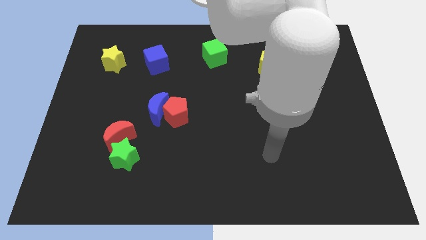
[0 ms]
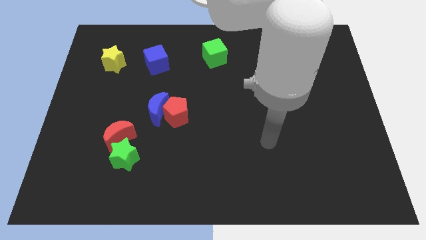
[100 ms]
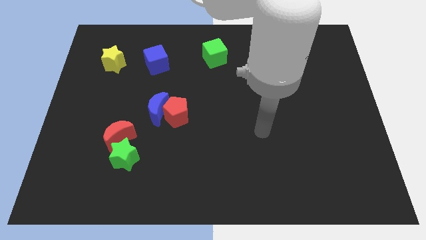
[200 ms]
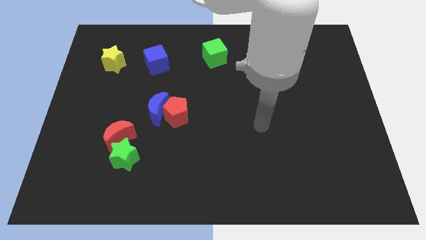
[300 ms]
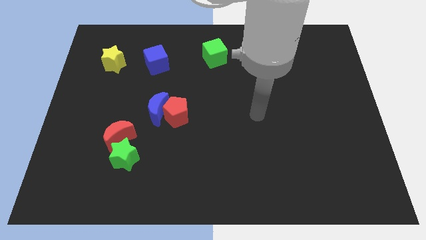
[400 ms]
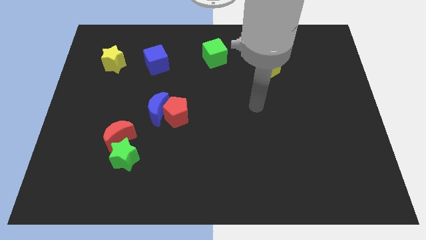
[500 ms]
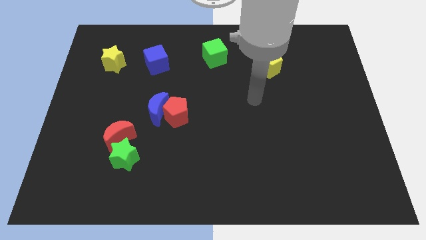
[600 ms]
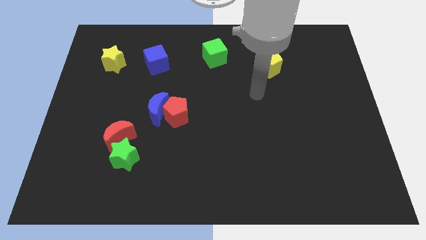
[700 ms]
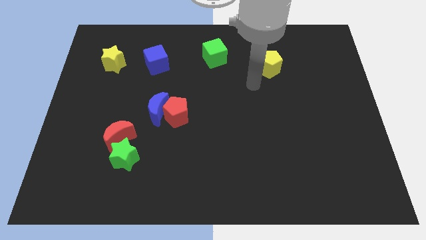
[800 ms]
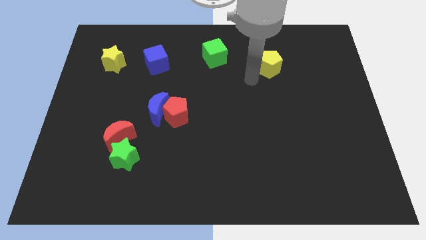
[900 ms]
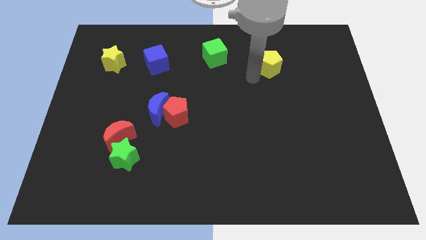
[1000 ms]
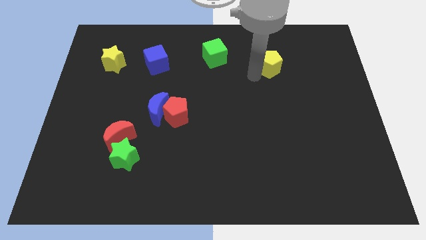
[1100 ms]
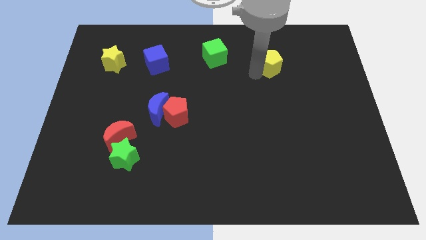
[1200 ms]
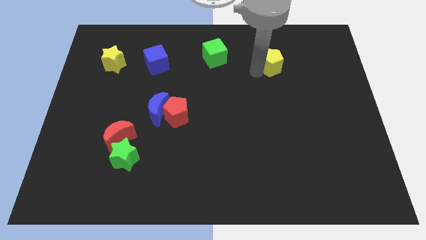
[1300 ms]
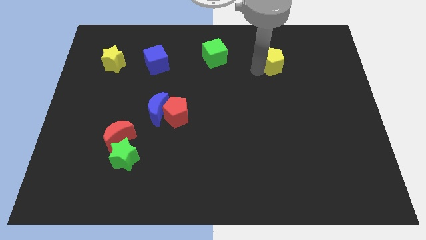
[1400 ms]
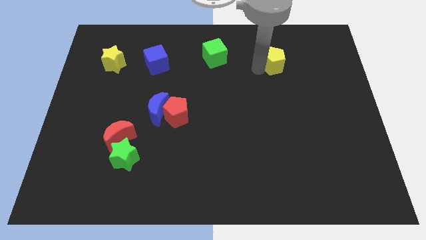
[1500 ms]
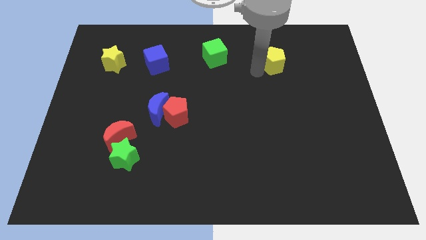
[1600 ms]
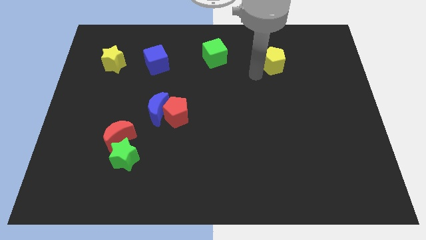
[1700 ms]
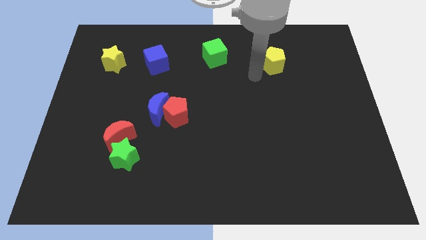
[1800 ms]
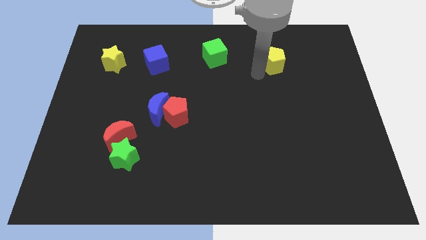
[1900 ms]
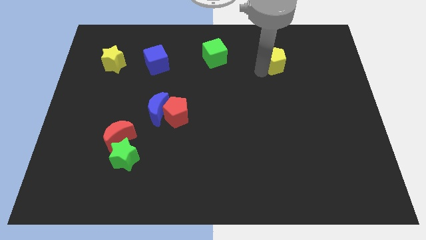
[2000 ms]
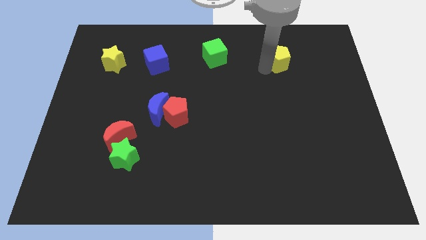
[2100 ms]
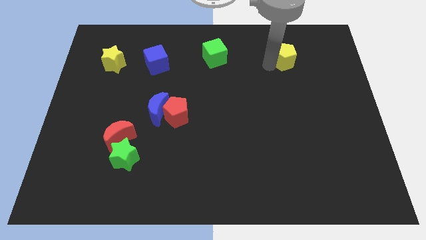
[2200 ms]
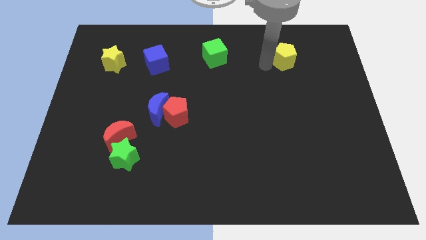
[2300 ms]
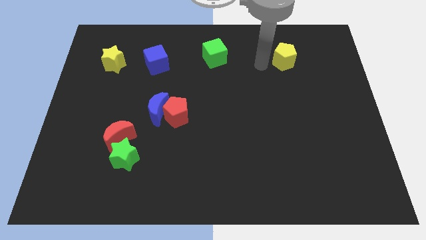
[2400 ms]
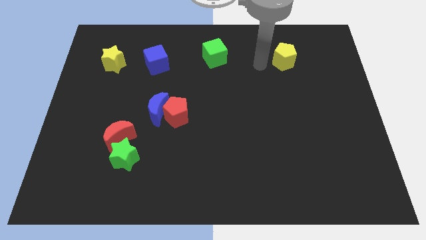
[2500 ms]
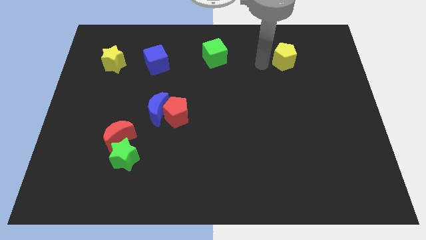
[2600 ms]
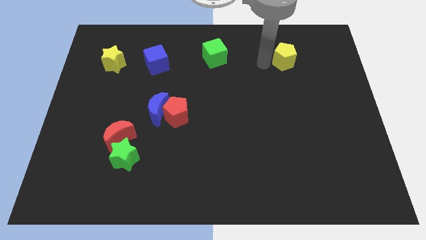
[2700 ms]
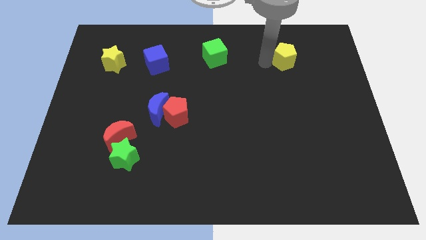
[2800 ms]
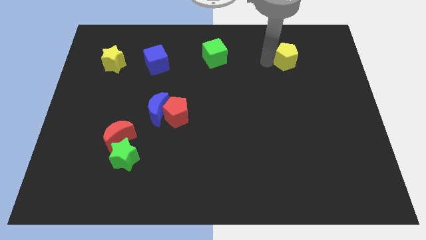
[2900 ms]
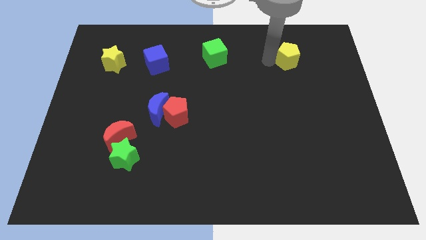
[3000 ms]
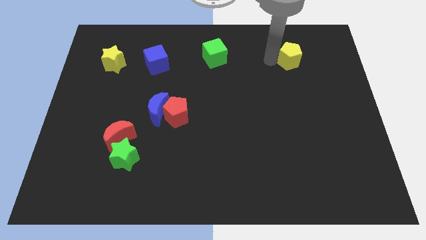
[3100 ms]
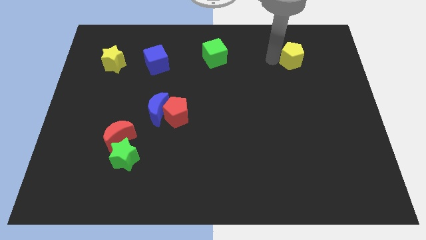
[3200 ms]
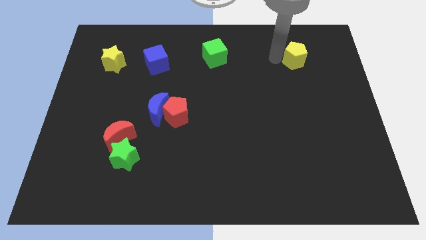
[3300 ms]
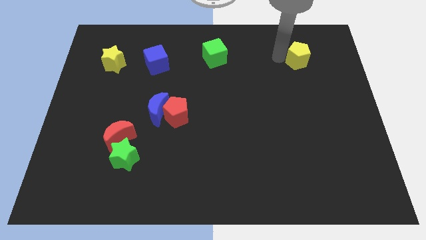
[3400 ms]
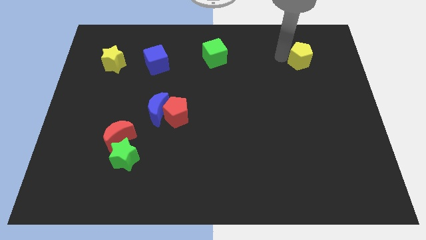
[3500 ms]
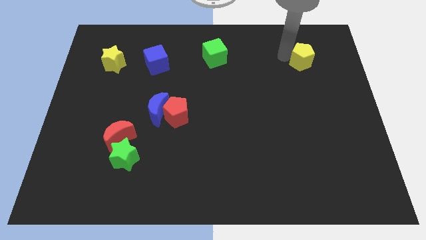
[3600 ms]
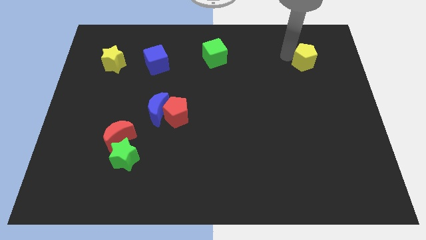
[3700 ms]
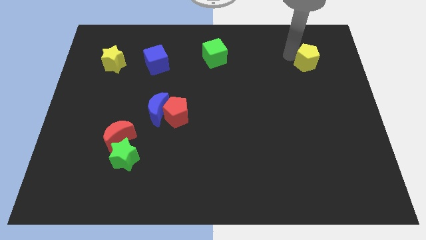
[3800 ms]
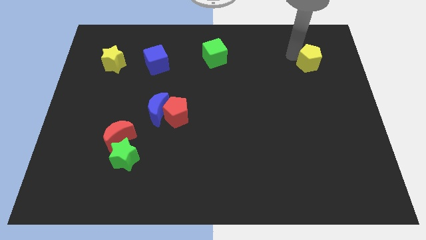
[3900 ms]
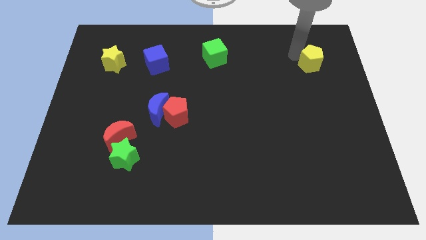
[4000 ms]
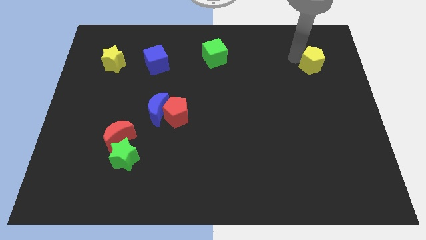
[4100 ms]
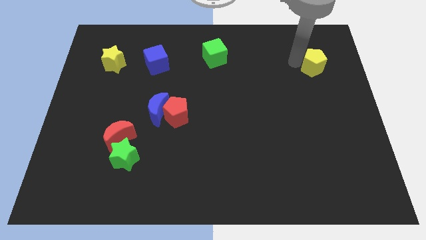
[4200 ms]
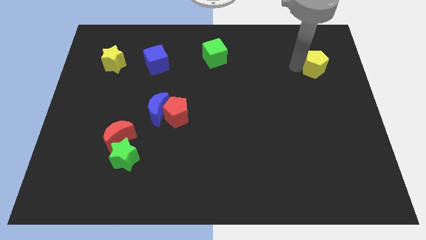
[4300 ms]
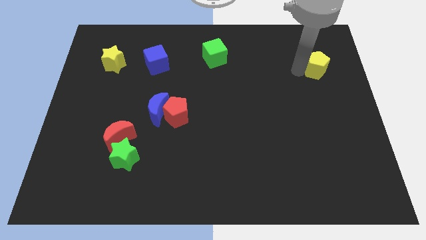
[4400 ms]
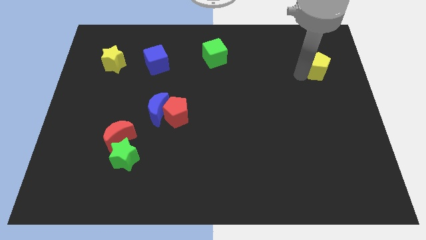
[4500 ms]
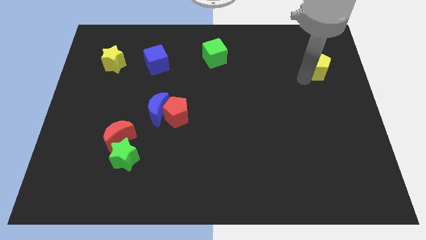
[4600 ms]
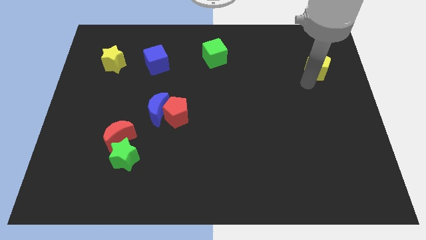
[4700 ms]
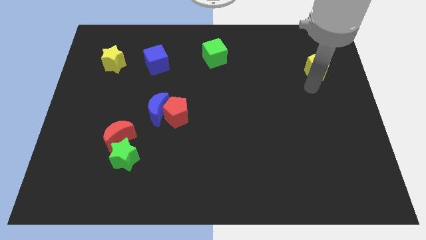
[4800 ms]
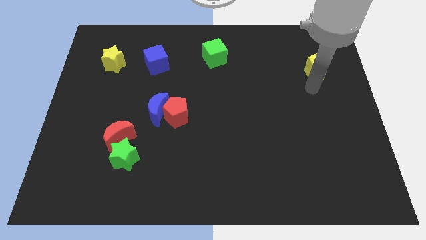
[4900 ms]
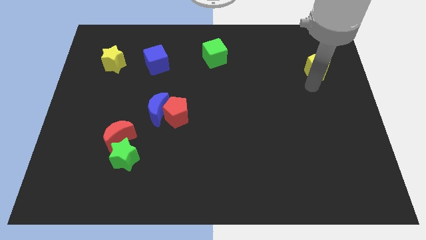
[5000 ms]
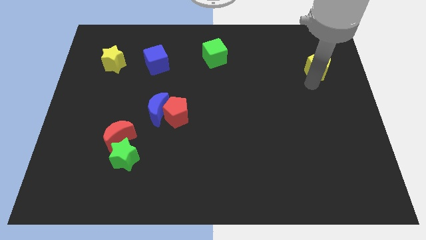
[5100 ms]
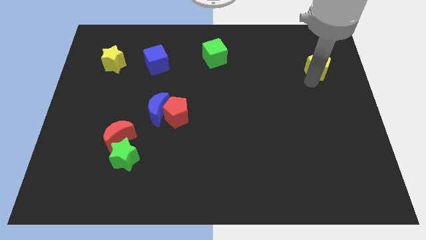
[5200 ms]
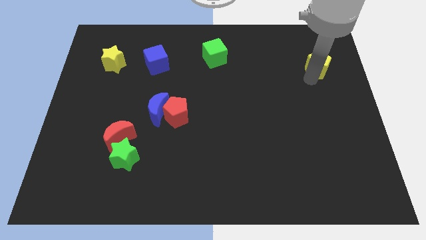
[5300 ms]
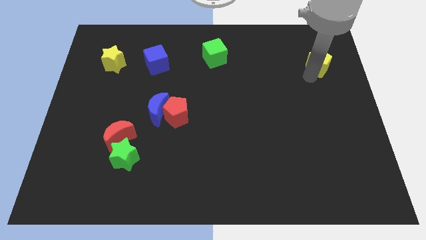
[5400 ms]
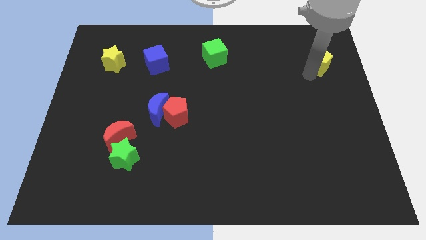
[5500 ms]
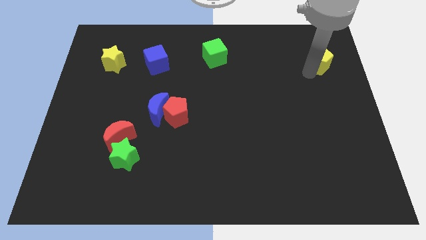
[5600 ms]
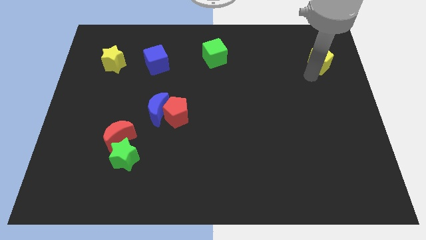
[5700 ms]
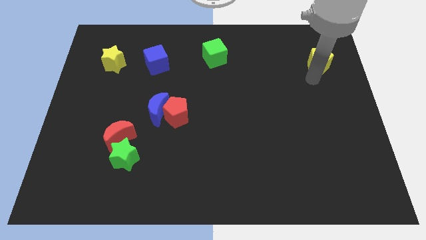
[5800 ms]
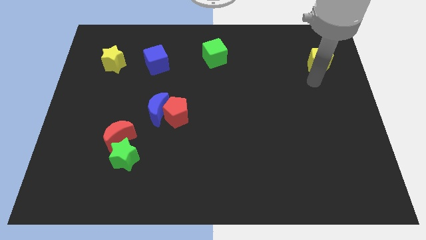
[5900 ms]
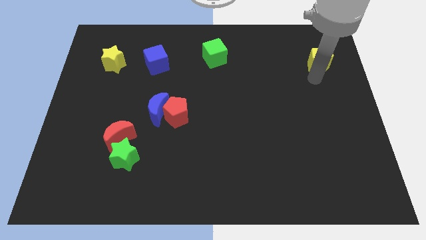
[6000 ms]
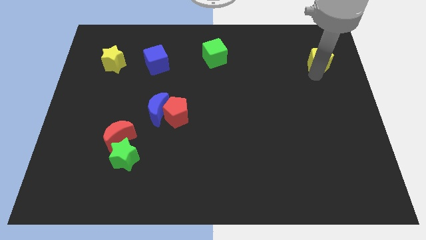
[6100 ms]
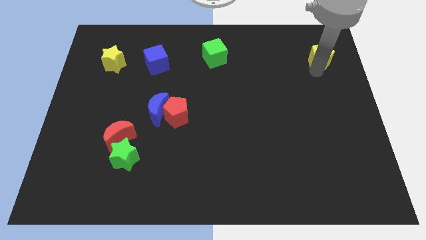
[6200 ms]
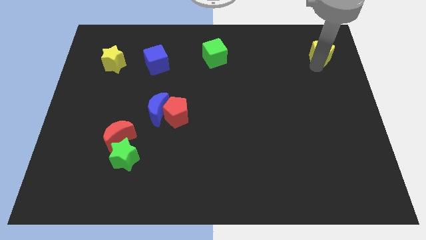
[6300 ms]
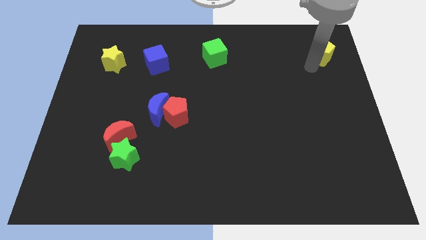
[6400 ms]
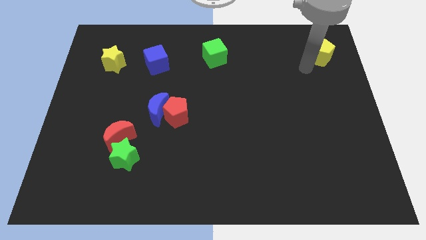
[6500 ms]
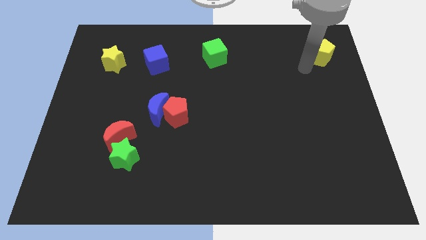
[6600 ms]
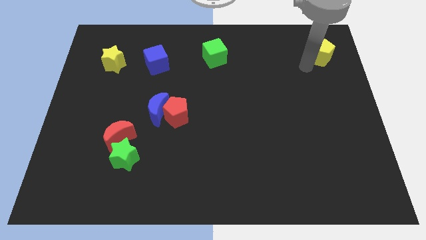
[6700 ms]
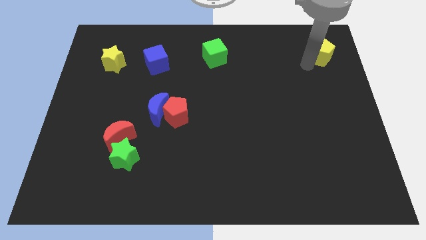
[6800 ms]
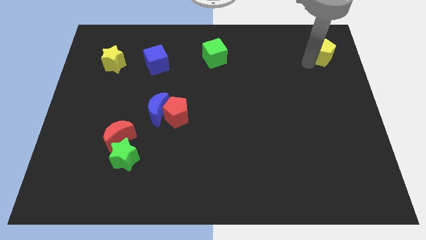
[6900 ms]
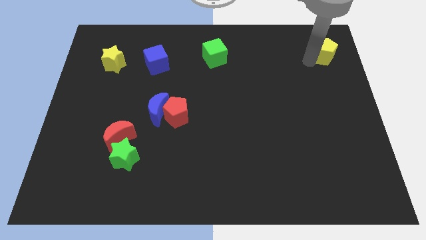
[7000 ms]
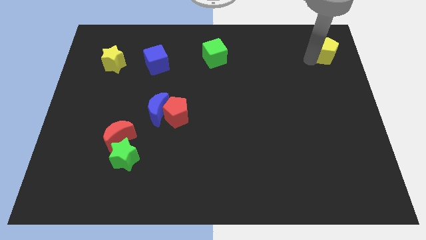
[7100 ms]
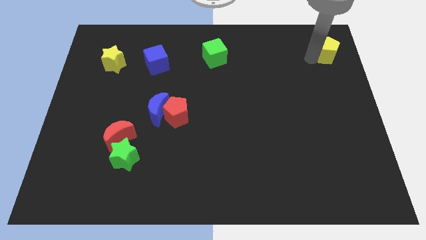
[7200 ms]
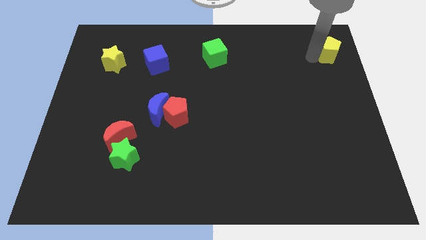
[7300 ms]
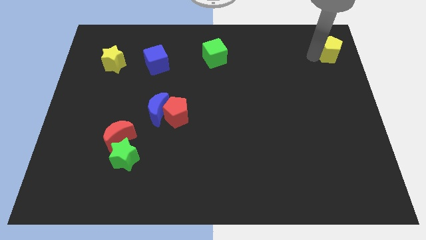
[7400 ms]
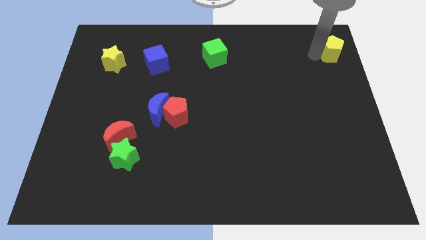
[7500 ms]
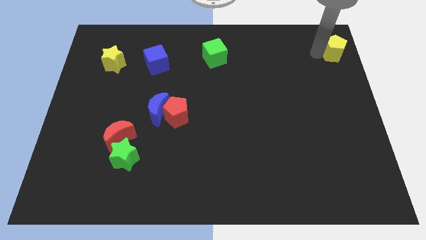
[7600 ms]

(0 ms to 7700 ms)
move the yellow pentagon to the top right of the board
